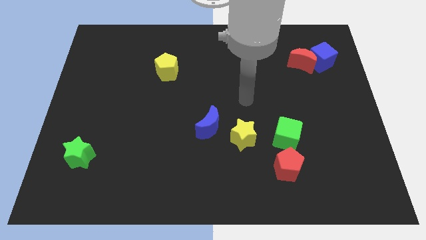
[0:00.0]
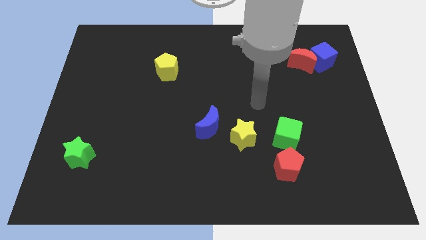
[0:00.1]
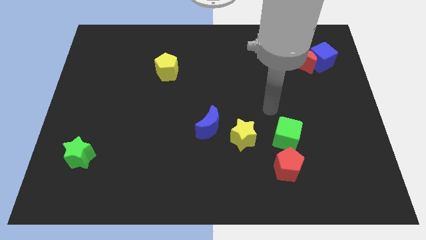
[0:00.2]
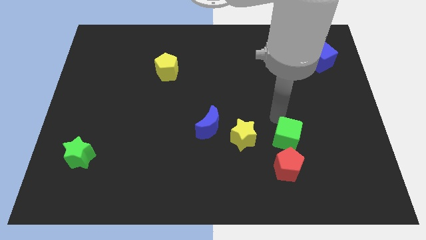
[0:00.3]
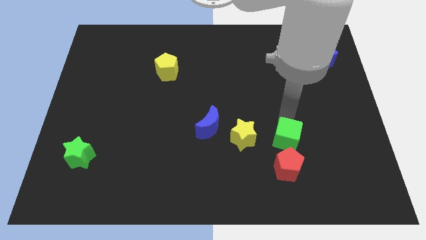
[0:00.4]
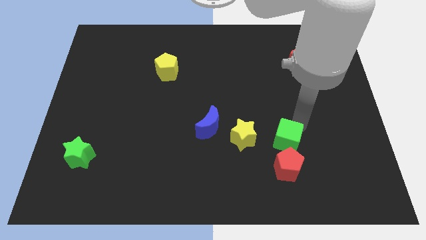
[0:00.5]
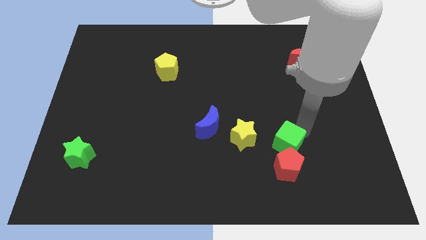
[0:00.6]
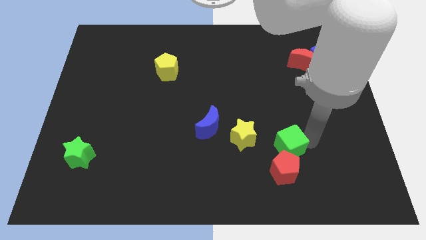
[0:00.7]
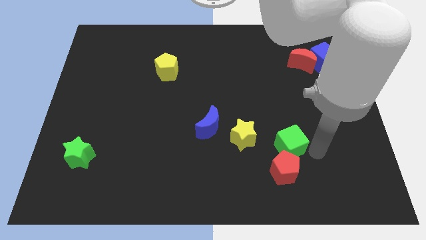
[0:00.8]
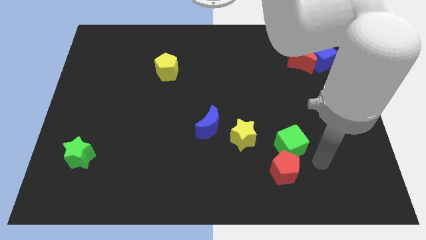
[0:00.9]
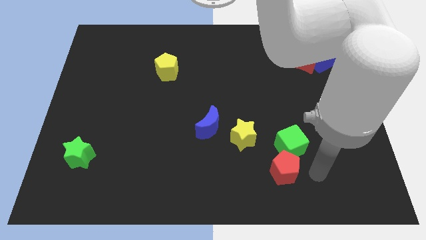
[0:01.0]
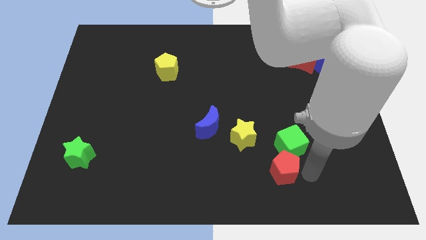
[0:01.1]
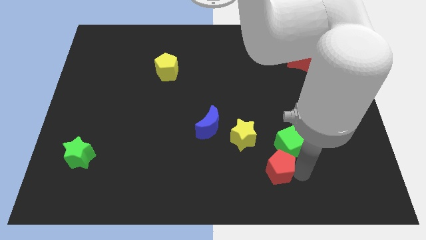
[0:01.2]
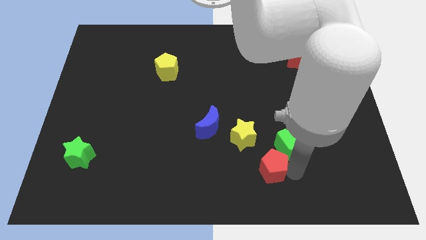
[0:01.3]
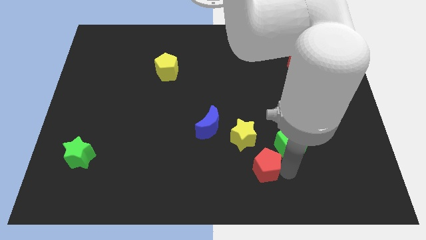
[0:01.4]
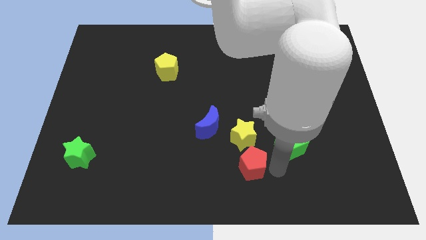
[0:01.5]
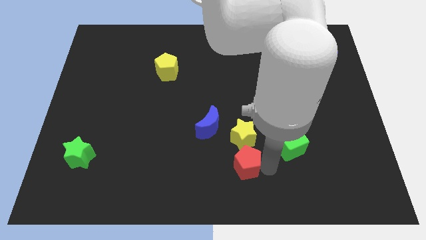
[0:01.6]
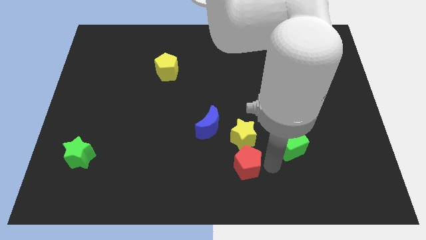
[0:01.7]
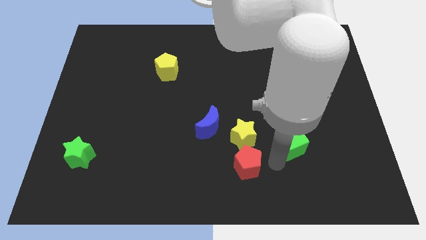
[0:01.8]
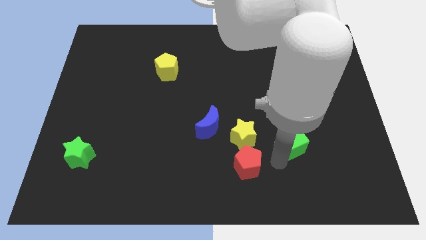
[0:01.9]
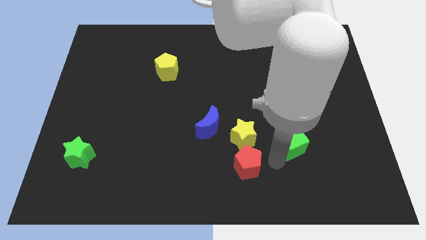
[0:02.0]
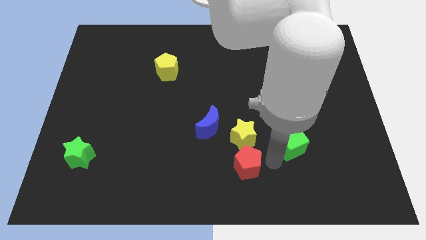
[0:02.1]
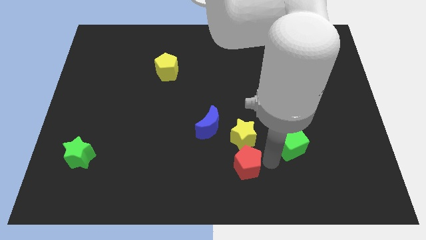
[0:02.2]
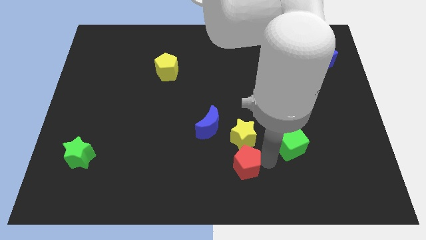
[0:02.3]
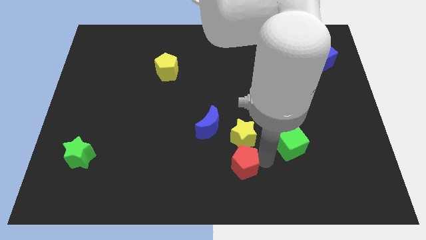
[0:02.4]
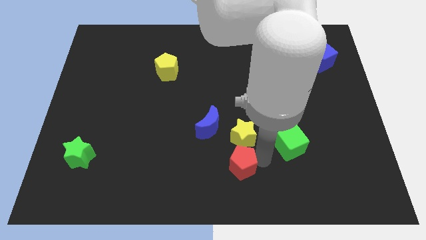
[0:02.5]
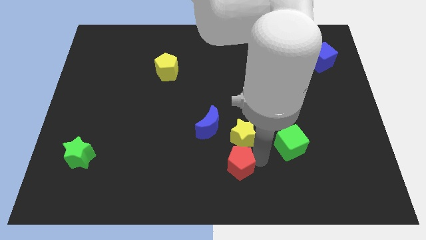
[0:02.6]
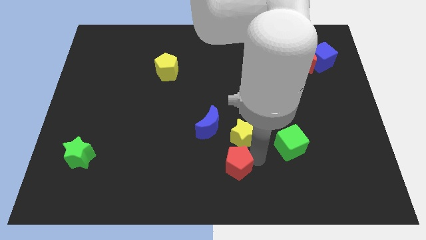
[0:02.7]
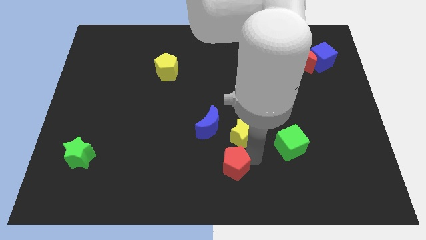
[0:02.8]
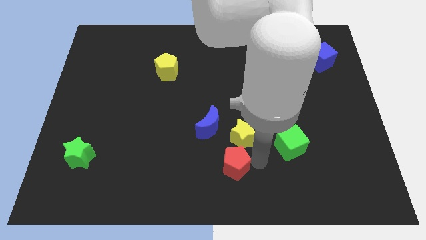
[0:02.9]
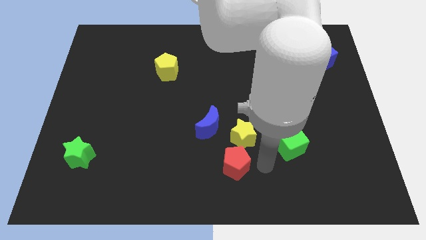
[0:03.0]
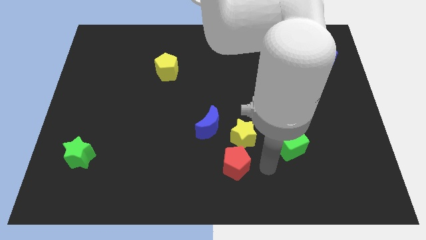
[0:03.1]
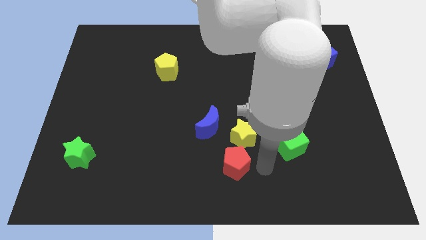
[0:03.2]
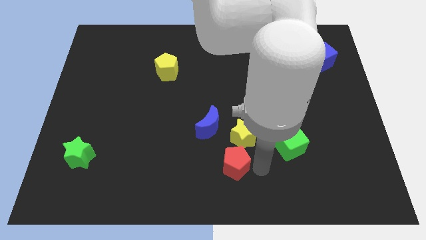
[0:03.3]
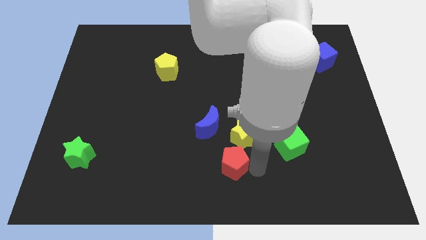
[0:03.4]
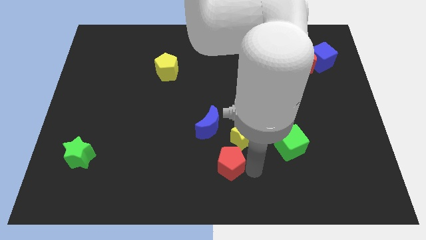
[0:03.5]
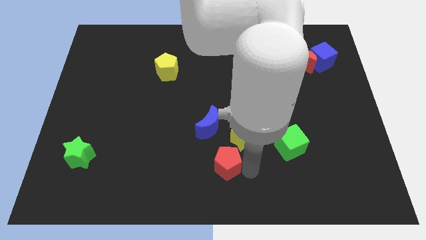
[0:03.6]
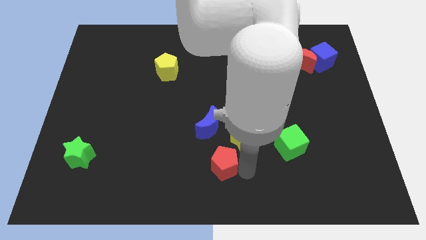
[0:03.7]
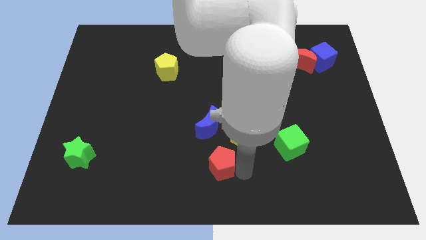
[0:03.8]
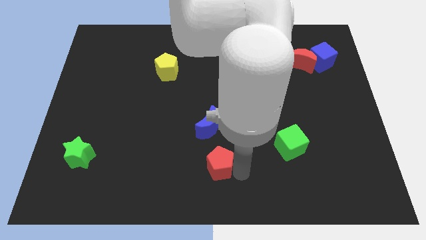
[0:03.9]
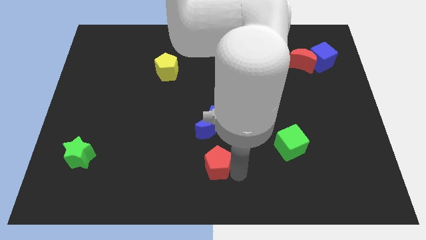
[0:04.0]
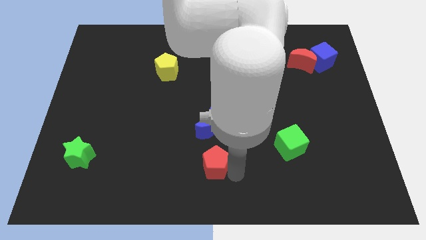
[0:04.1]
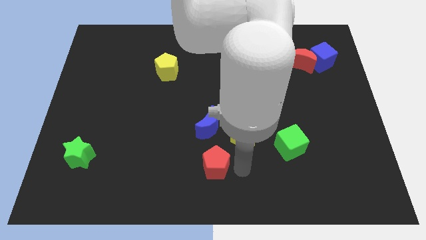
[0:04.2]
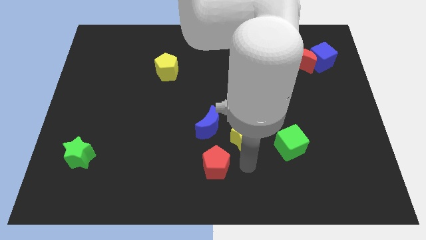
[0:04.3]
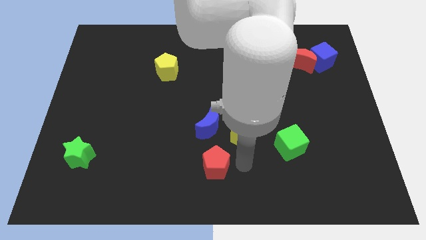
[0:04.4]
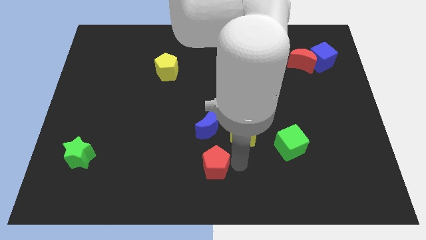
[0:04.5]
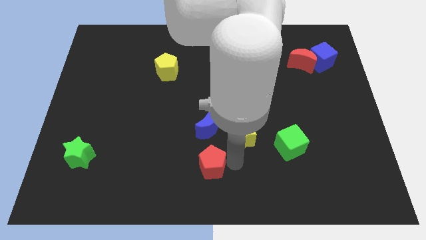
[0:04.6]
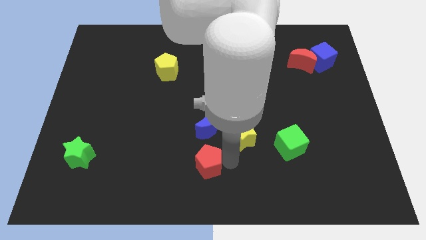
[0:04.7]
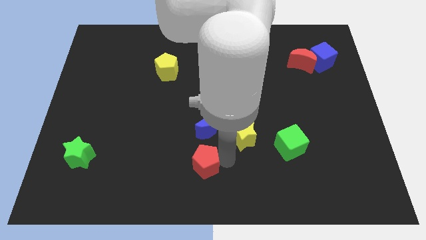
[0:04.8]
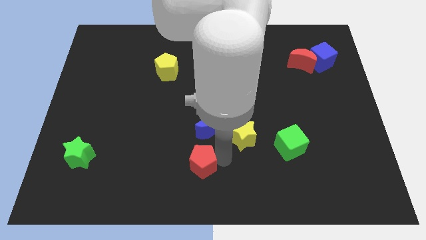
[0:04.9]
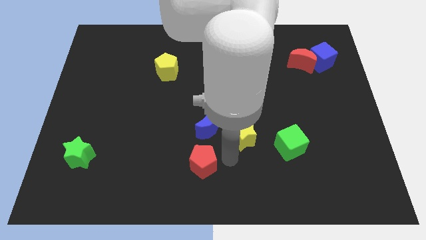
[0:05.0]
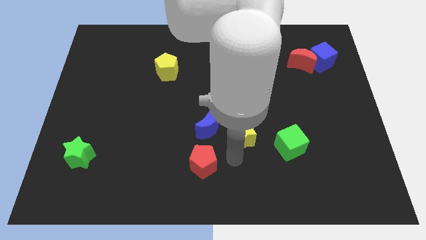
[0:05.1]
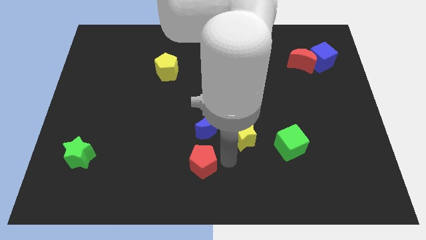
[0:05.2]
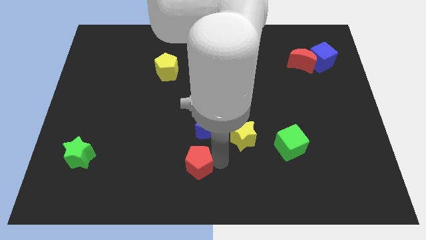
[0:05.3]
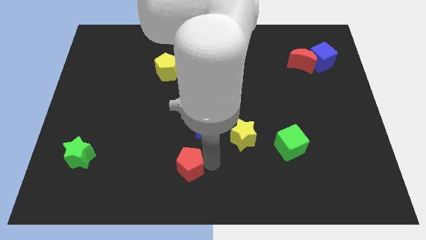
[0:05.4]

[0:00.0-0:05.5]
slide the red pentagon to the left

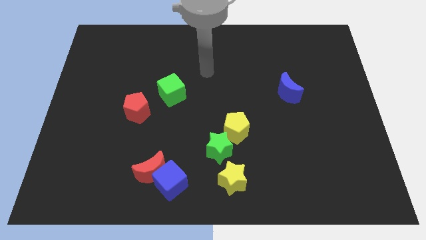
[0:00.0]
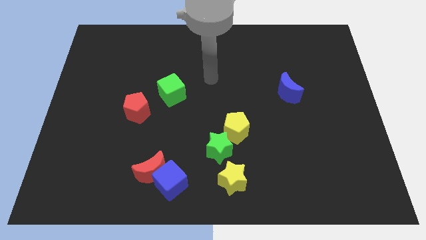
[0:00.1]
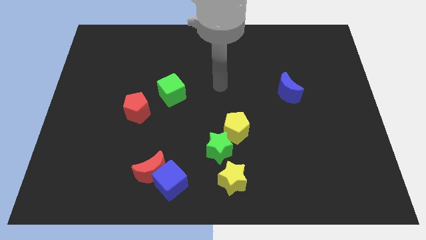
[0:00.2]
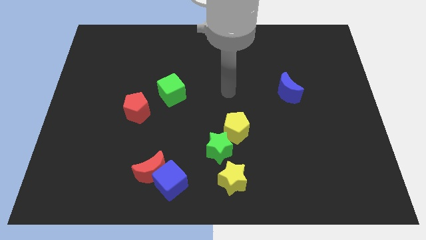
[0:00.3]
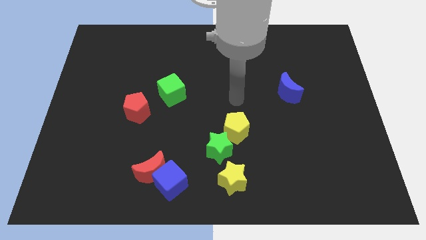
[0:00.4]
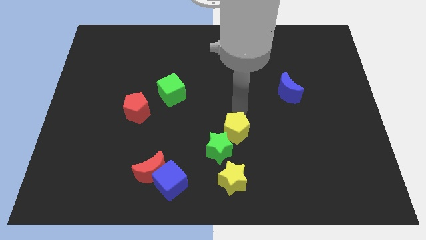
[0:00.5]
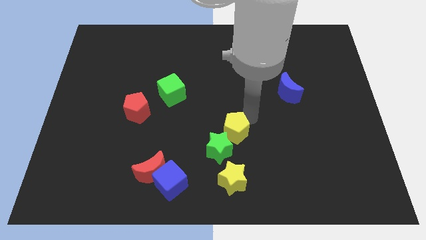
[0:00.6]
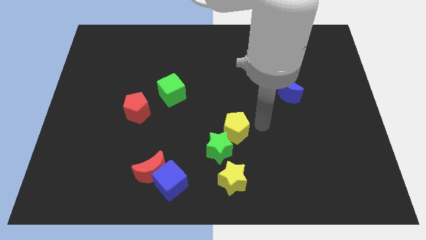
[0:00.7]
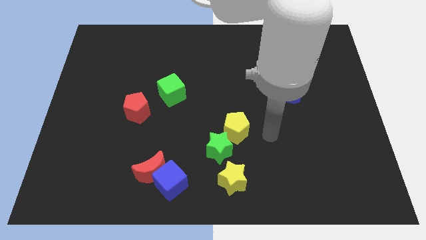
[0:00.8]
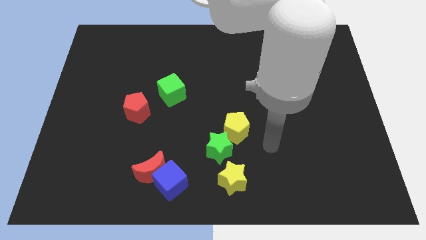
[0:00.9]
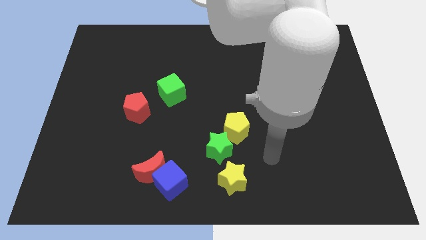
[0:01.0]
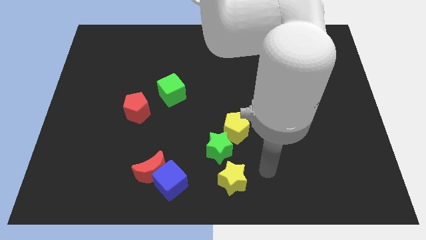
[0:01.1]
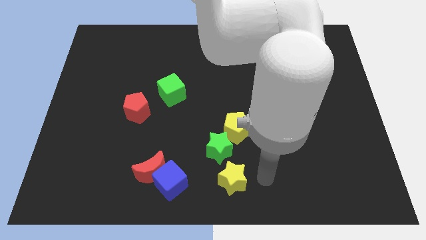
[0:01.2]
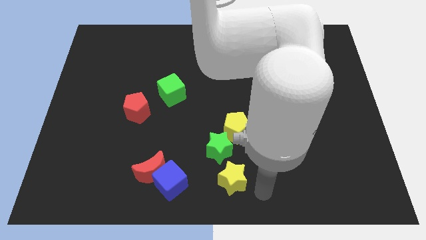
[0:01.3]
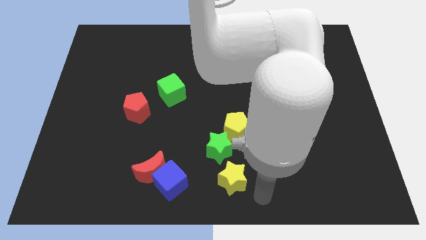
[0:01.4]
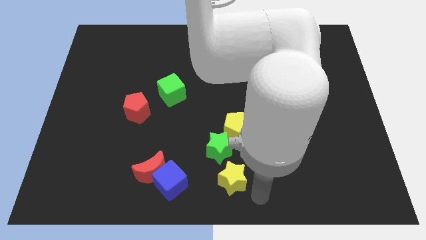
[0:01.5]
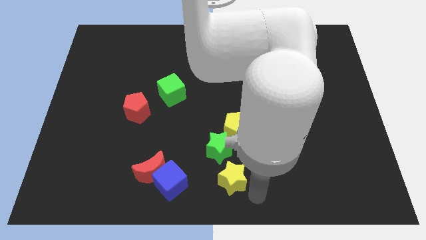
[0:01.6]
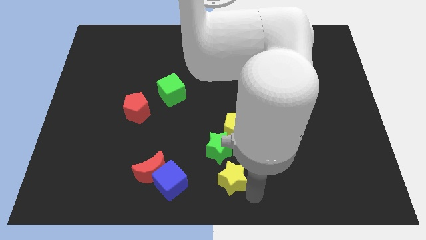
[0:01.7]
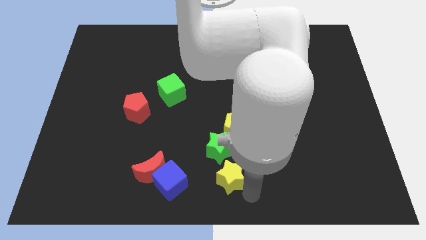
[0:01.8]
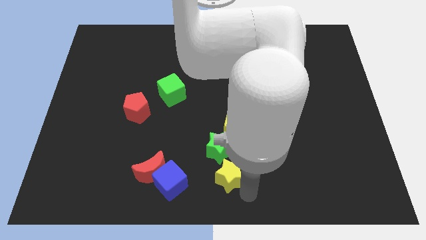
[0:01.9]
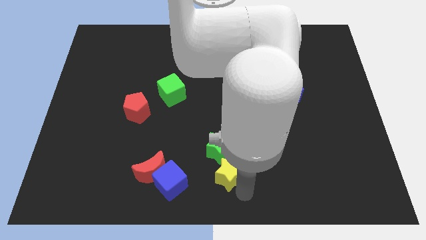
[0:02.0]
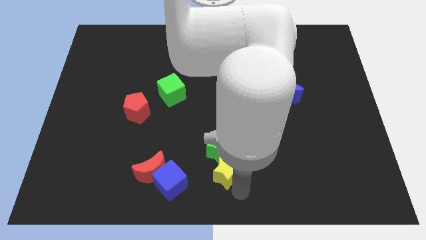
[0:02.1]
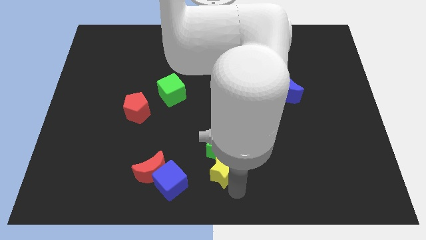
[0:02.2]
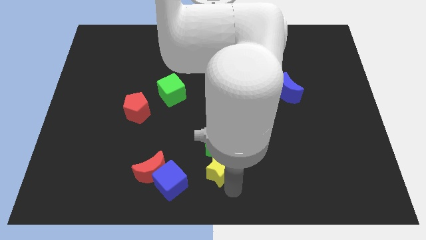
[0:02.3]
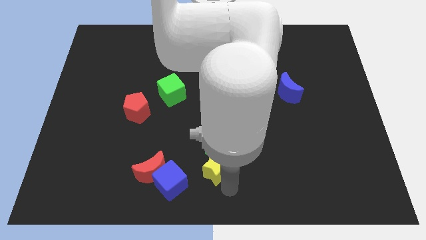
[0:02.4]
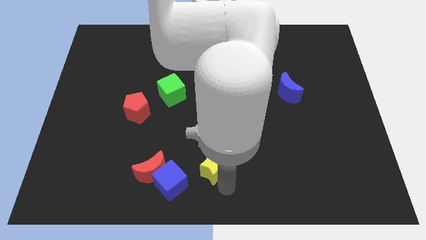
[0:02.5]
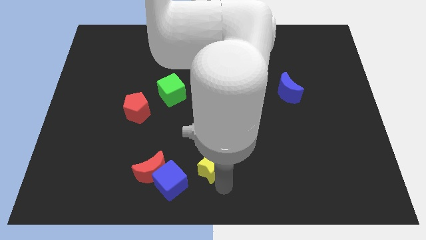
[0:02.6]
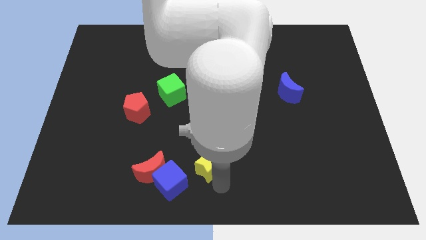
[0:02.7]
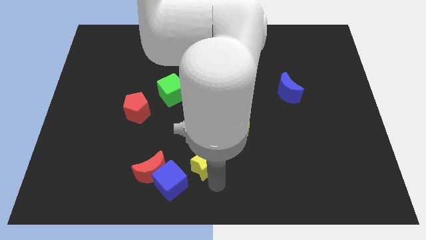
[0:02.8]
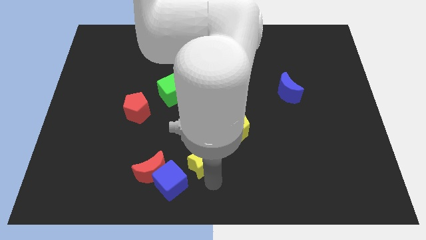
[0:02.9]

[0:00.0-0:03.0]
slide the yellow star upwards and left a little bit
